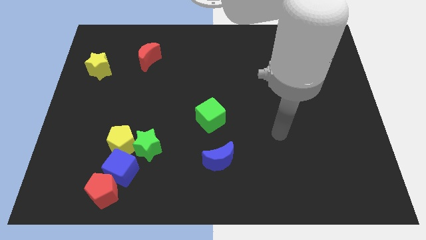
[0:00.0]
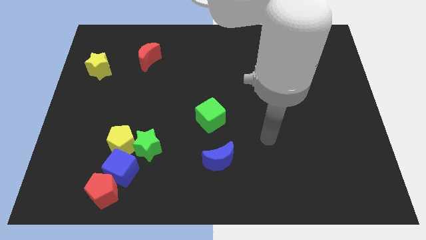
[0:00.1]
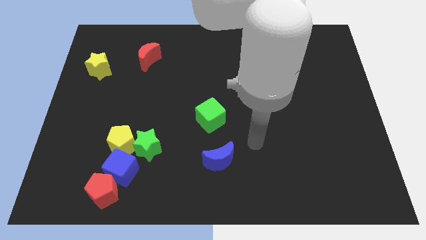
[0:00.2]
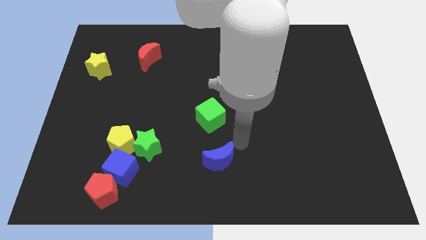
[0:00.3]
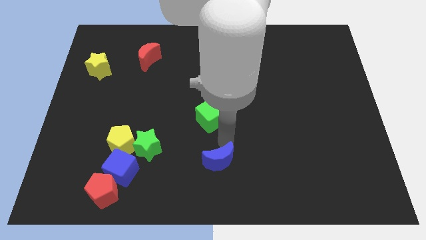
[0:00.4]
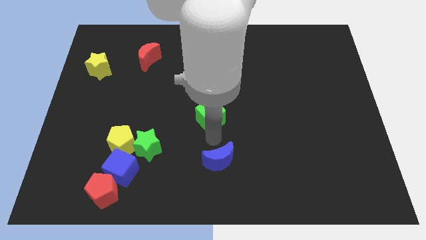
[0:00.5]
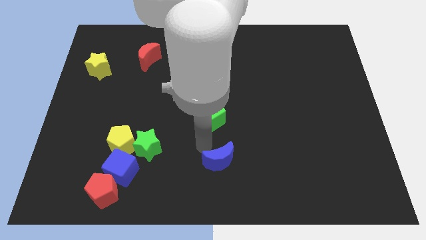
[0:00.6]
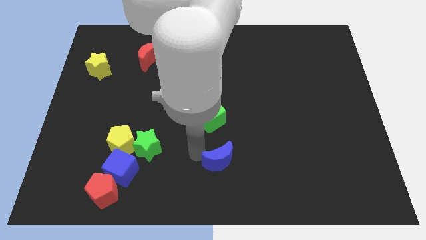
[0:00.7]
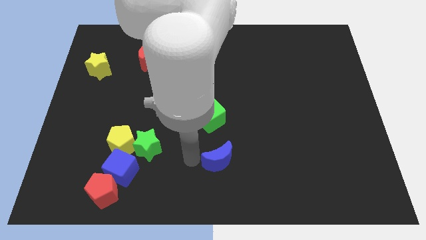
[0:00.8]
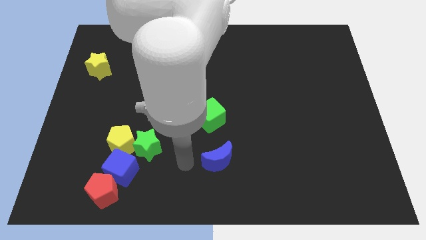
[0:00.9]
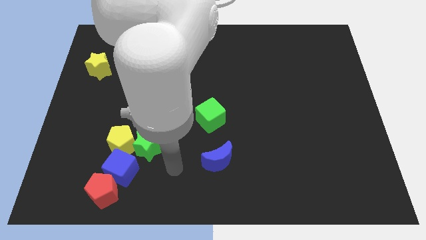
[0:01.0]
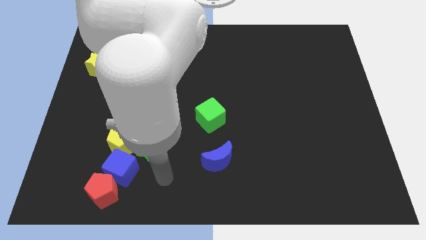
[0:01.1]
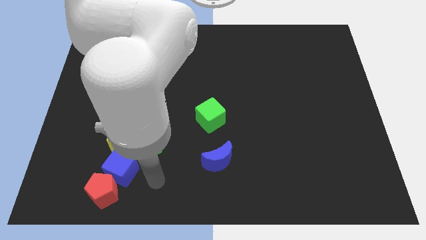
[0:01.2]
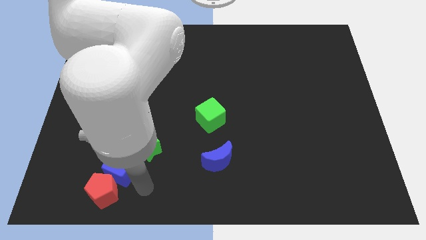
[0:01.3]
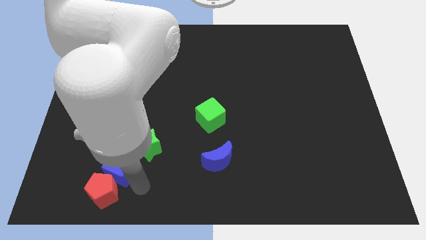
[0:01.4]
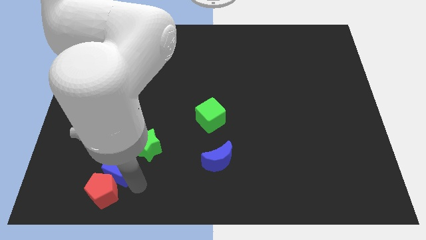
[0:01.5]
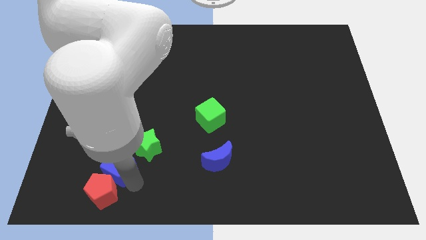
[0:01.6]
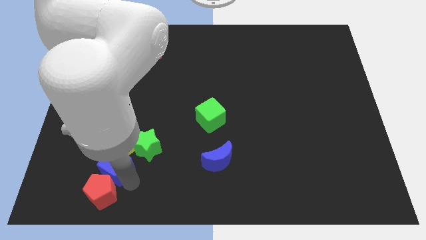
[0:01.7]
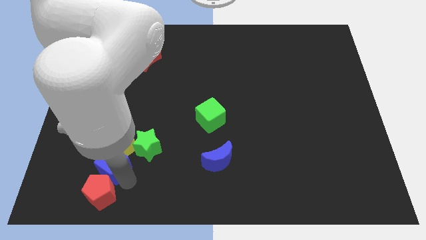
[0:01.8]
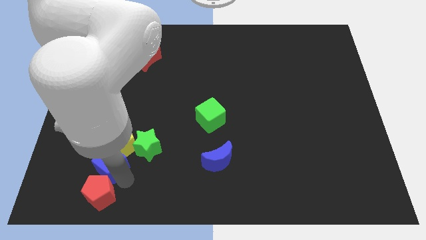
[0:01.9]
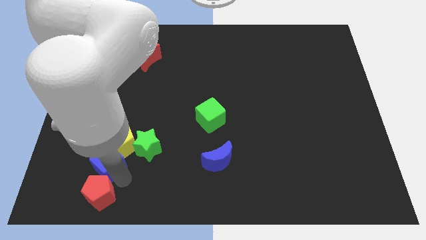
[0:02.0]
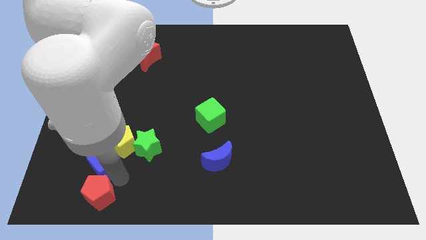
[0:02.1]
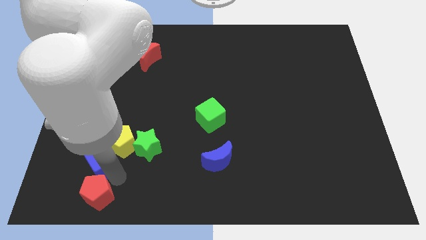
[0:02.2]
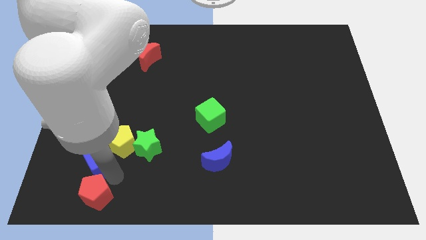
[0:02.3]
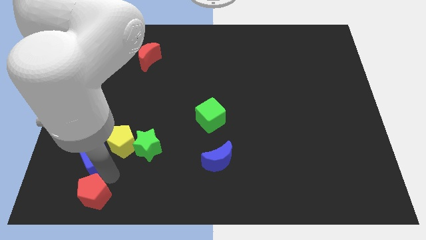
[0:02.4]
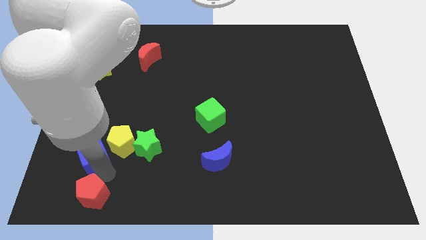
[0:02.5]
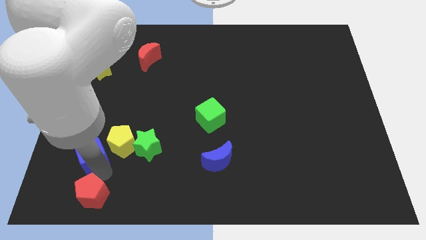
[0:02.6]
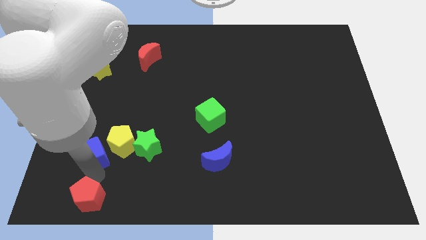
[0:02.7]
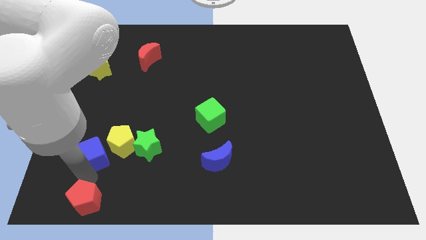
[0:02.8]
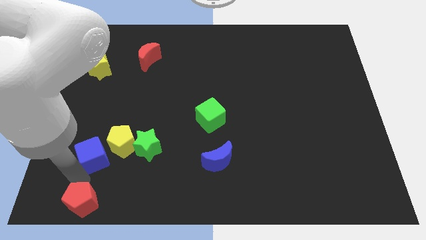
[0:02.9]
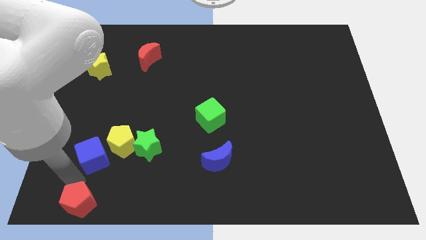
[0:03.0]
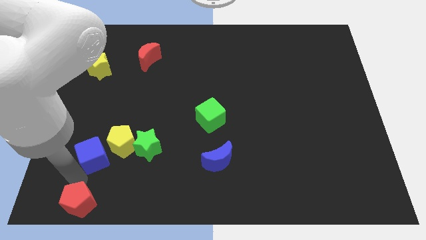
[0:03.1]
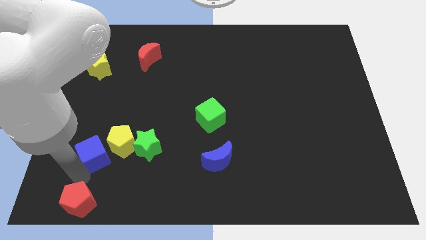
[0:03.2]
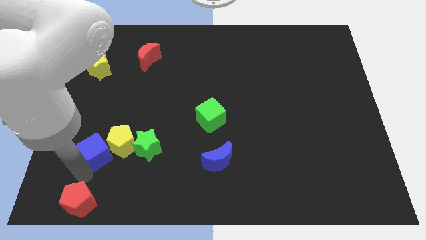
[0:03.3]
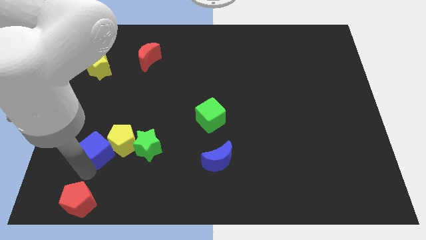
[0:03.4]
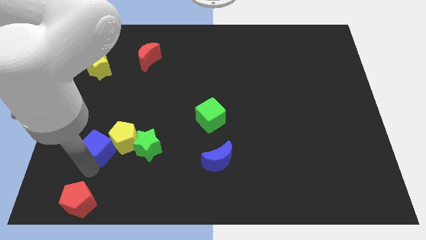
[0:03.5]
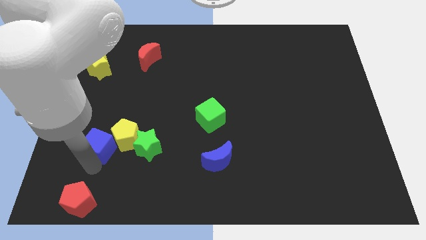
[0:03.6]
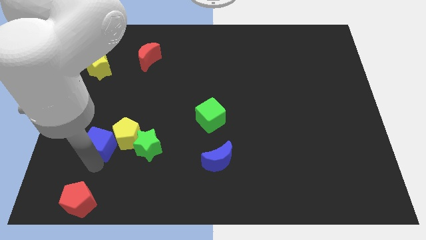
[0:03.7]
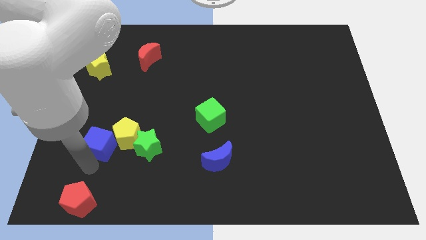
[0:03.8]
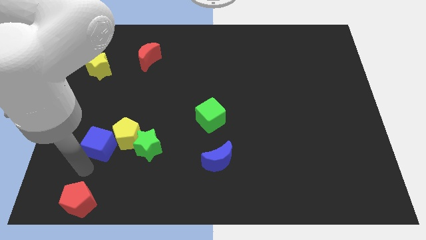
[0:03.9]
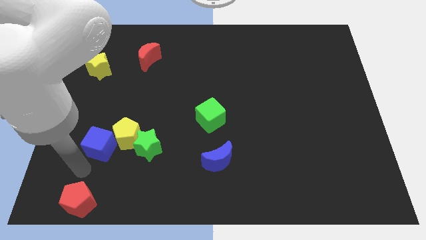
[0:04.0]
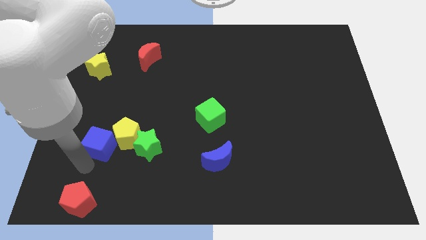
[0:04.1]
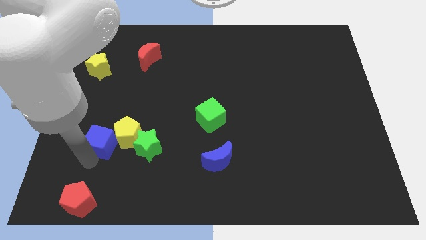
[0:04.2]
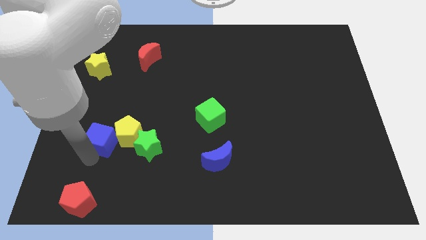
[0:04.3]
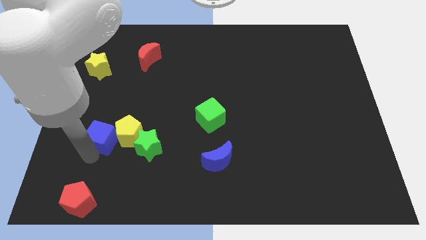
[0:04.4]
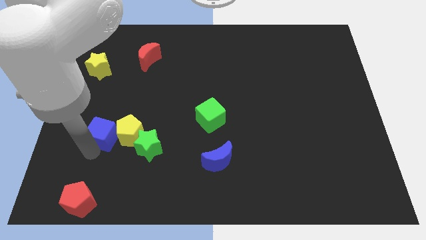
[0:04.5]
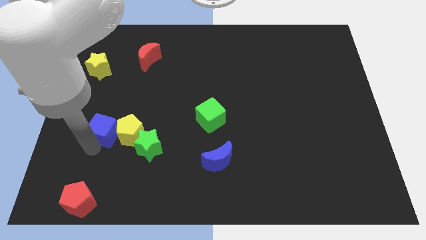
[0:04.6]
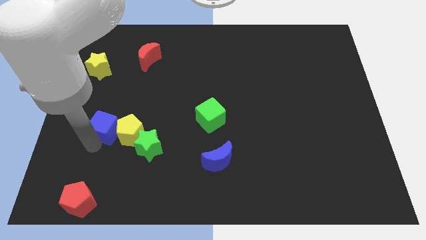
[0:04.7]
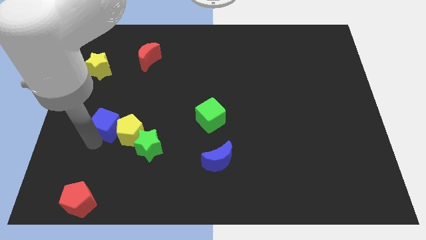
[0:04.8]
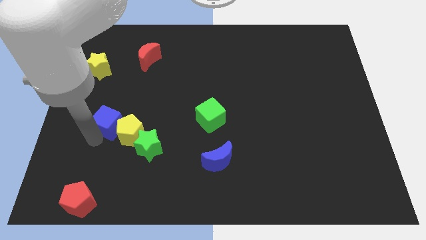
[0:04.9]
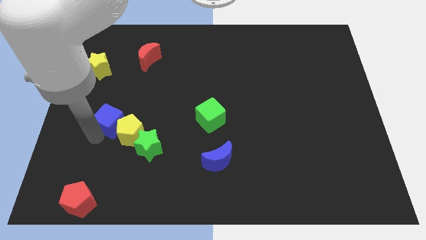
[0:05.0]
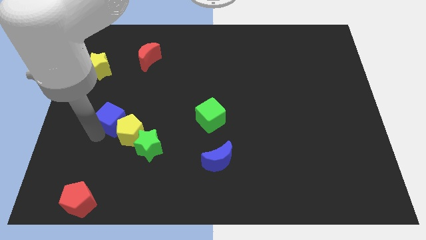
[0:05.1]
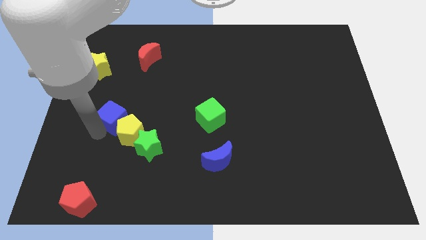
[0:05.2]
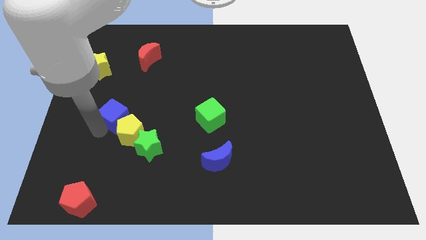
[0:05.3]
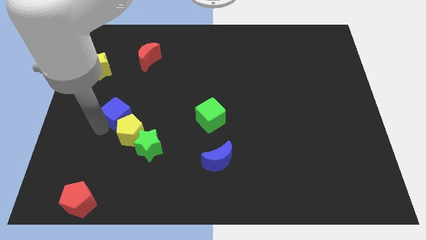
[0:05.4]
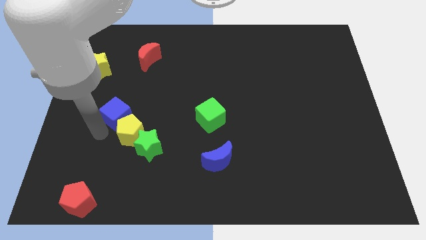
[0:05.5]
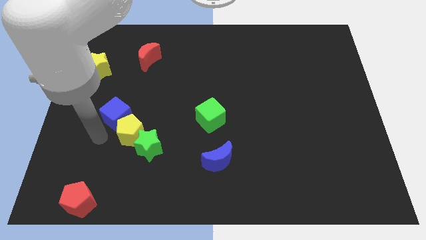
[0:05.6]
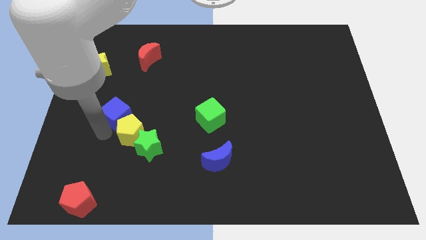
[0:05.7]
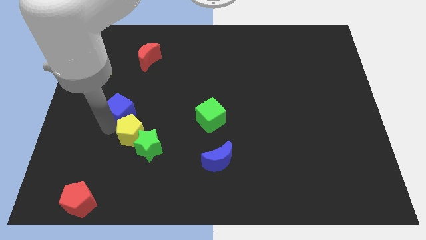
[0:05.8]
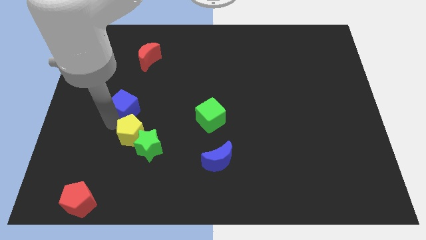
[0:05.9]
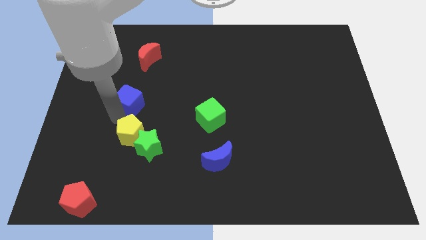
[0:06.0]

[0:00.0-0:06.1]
put the blue cube to the bottom side of the red moon

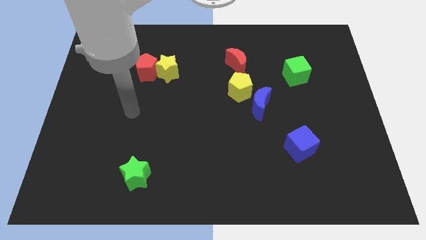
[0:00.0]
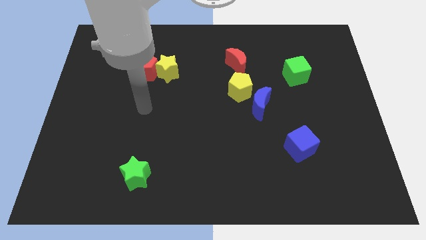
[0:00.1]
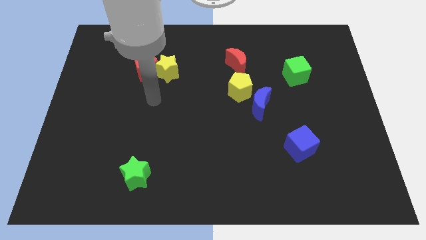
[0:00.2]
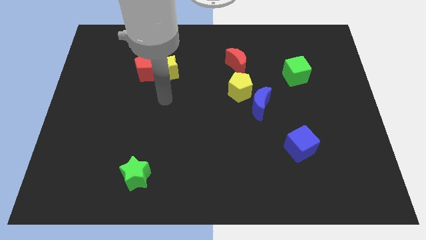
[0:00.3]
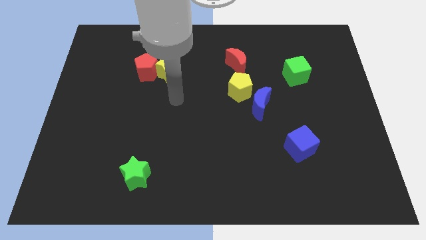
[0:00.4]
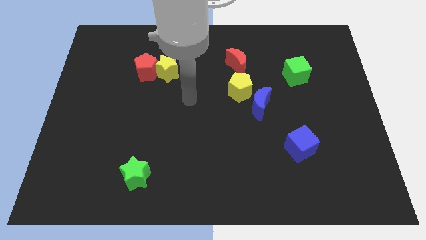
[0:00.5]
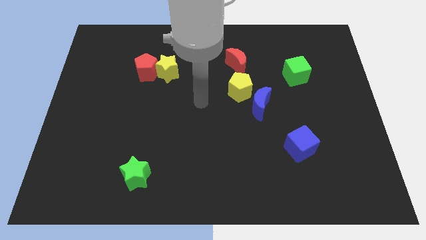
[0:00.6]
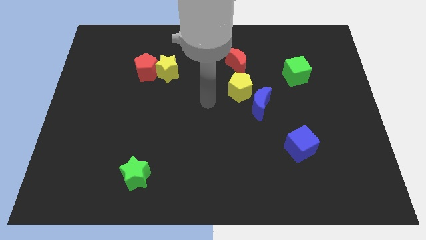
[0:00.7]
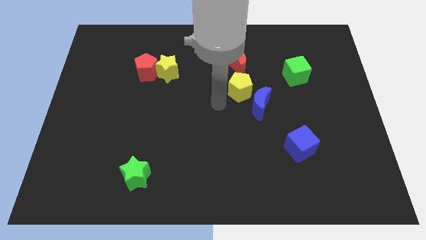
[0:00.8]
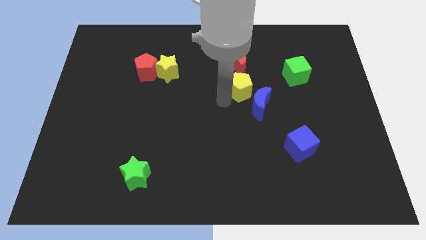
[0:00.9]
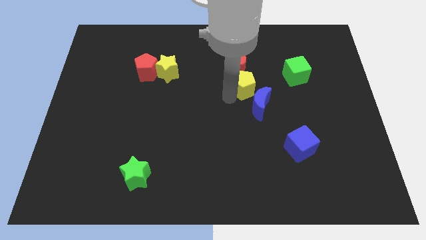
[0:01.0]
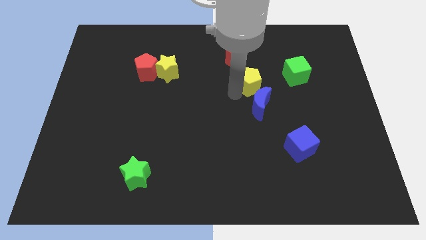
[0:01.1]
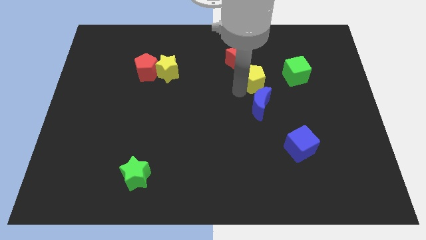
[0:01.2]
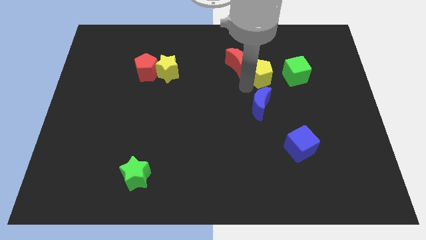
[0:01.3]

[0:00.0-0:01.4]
put the yellow pentagon to the right side of the red moon
